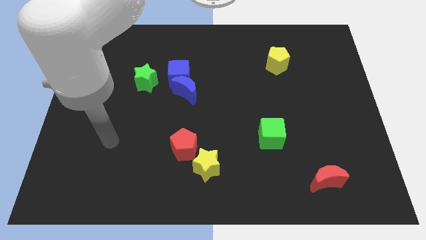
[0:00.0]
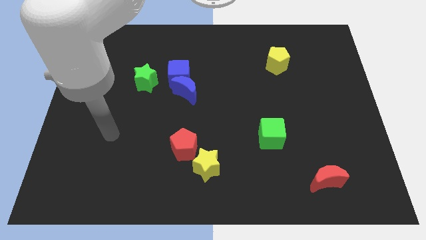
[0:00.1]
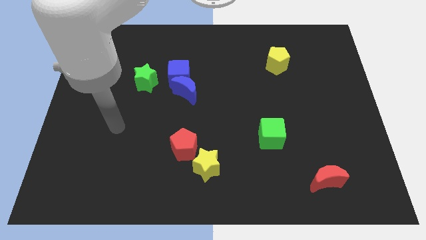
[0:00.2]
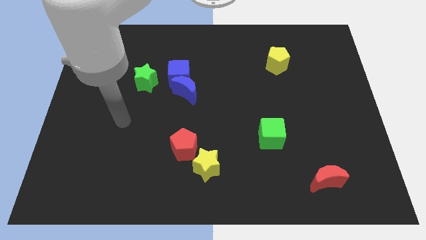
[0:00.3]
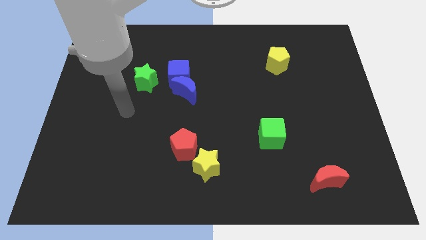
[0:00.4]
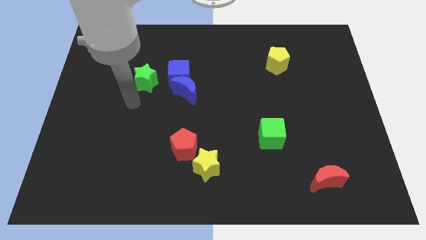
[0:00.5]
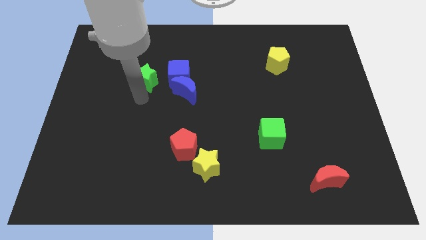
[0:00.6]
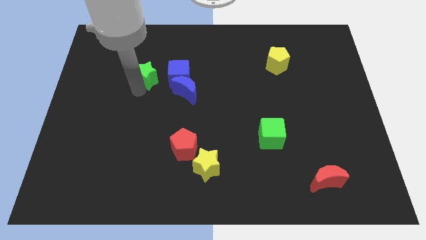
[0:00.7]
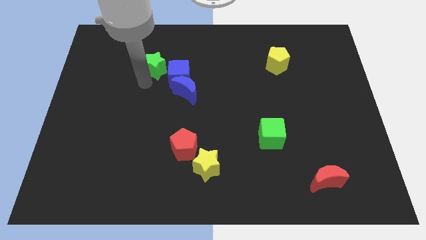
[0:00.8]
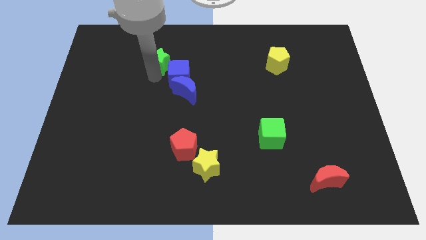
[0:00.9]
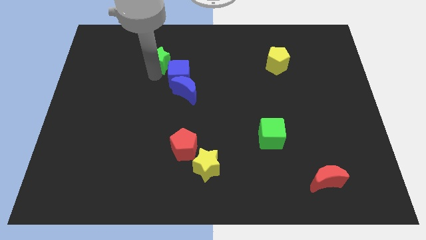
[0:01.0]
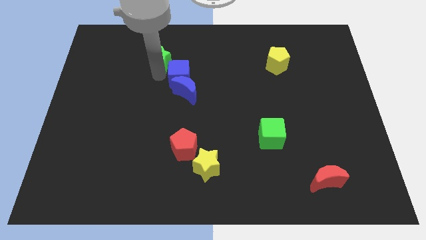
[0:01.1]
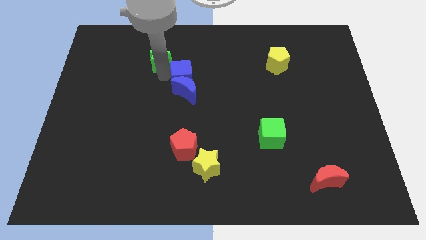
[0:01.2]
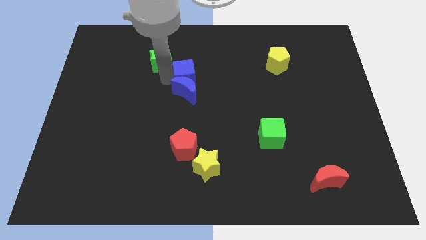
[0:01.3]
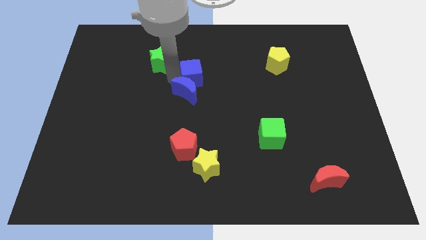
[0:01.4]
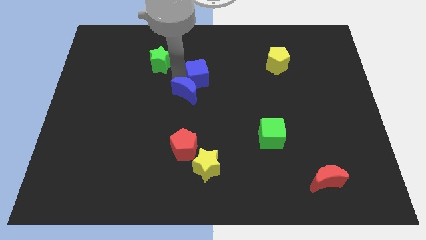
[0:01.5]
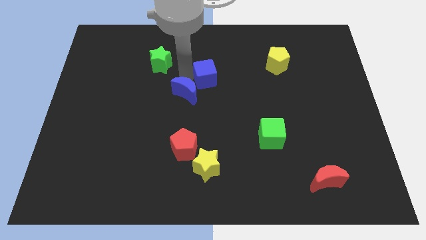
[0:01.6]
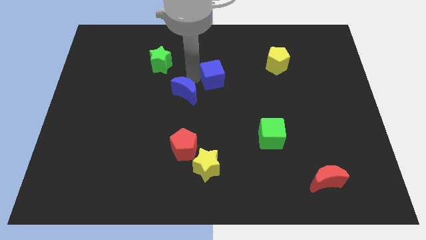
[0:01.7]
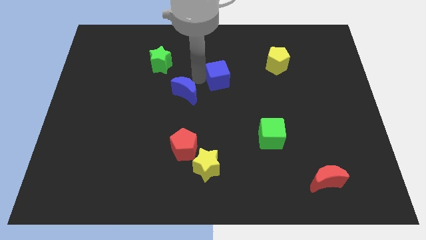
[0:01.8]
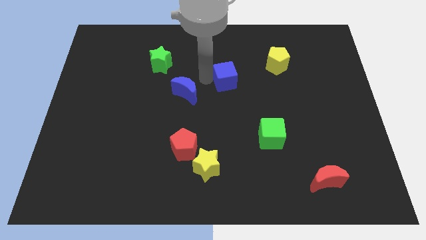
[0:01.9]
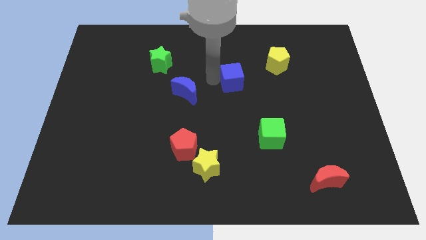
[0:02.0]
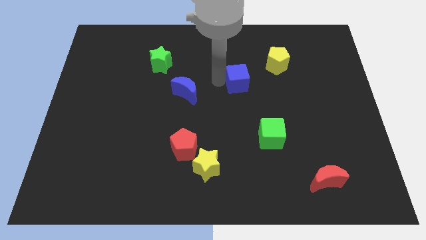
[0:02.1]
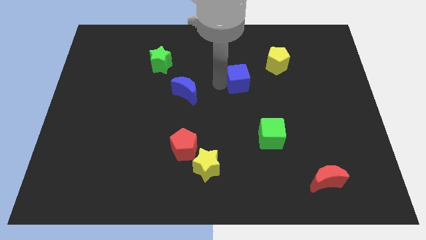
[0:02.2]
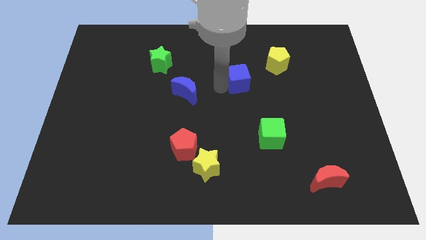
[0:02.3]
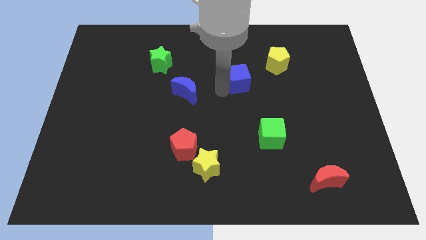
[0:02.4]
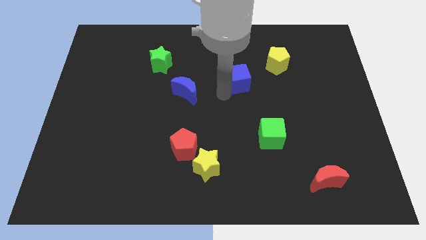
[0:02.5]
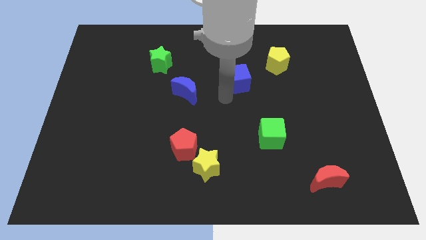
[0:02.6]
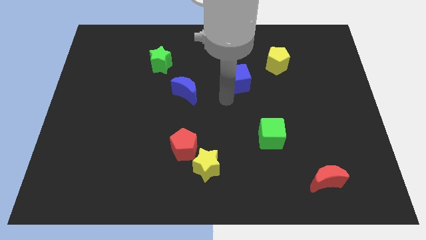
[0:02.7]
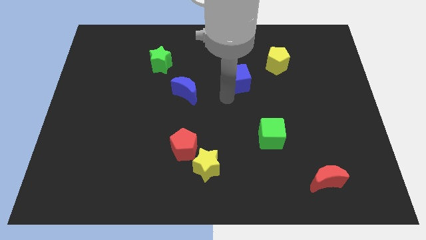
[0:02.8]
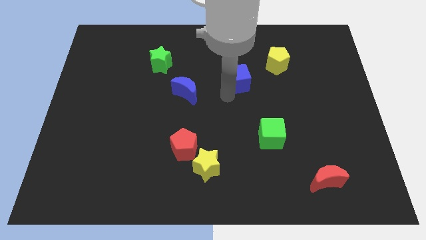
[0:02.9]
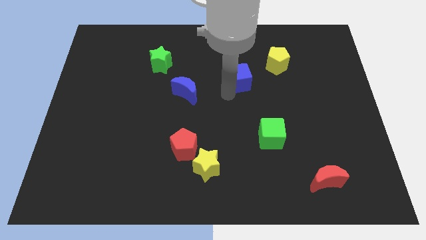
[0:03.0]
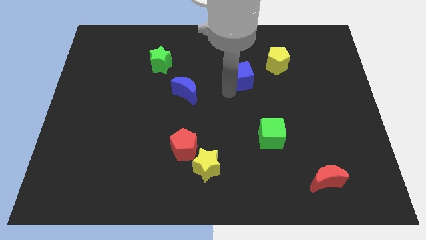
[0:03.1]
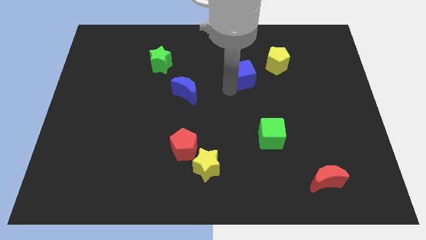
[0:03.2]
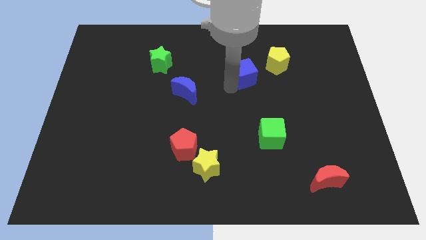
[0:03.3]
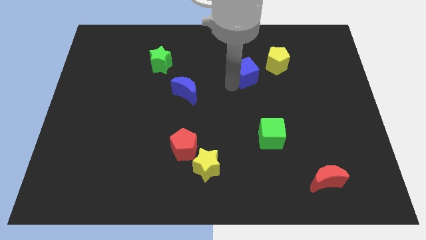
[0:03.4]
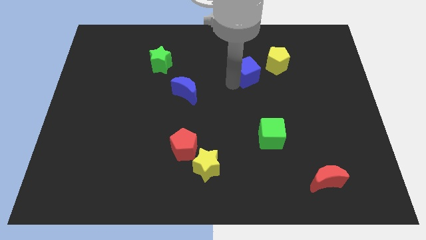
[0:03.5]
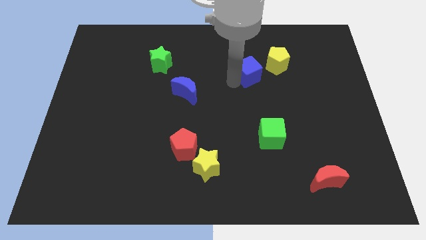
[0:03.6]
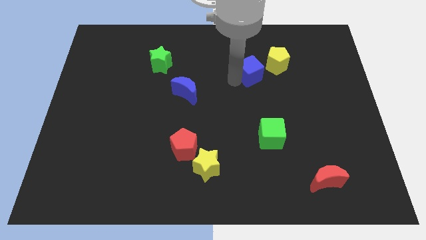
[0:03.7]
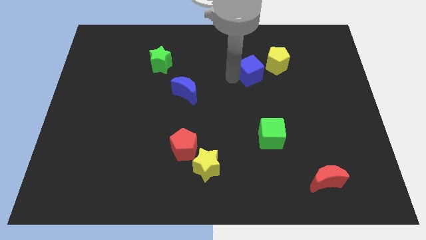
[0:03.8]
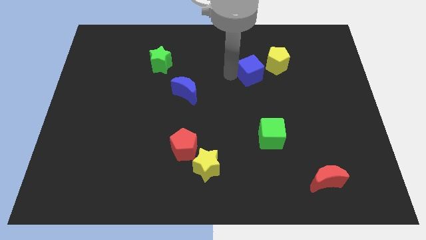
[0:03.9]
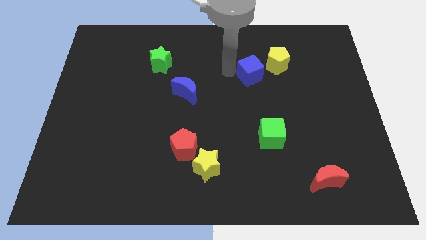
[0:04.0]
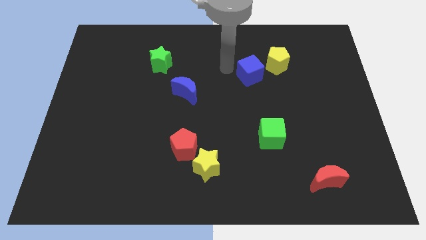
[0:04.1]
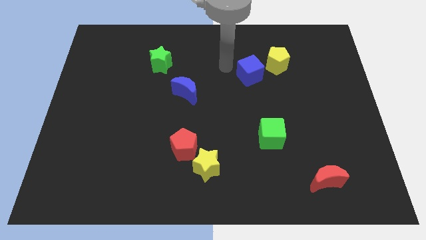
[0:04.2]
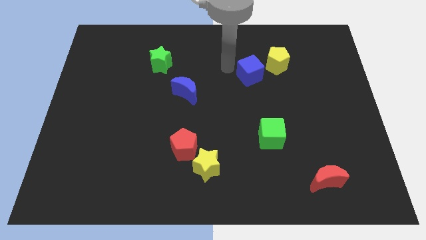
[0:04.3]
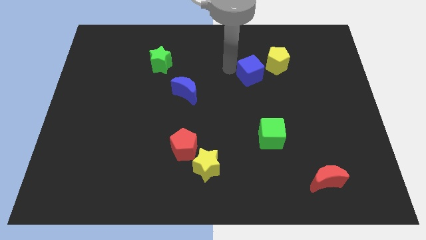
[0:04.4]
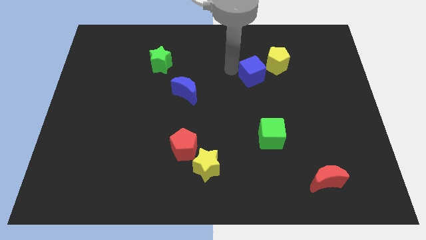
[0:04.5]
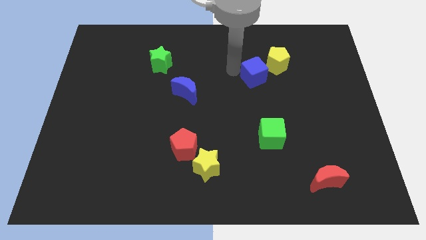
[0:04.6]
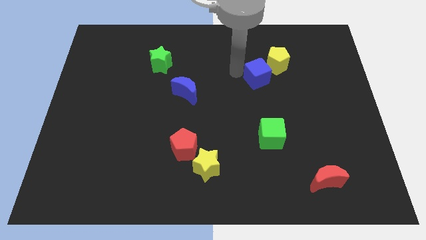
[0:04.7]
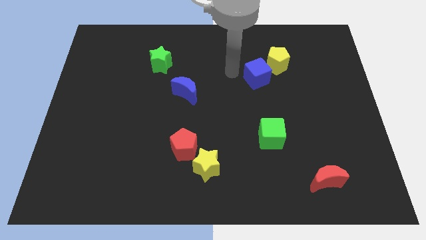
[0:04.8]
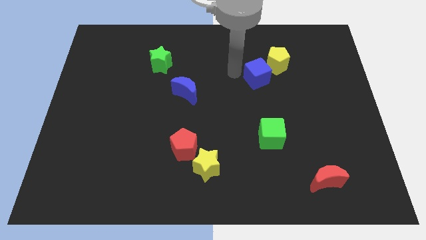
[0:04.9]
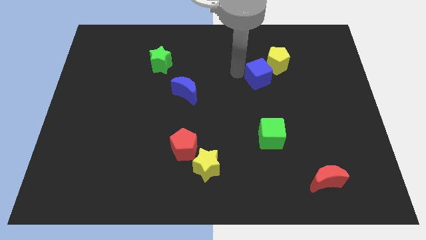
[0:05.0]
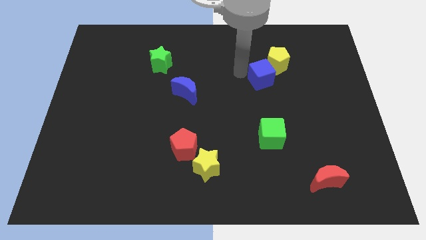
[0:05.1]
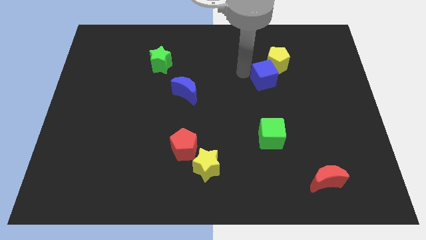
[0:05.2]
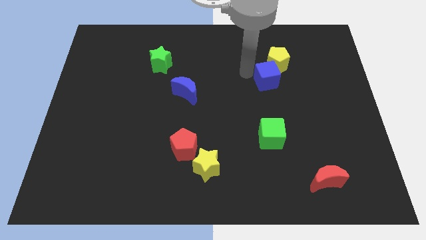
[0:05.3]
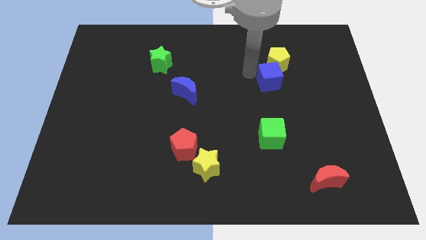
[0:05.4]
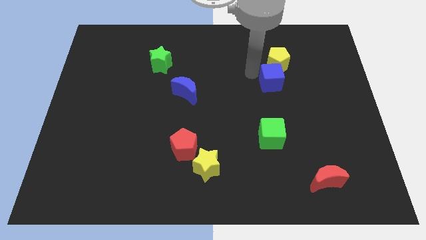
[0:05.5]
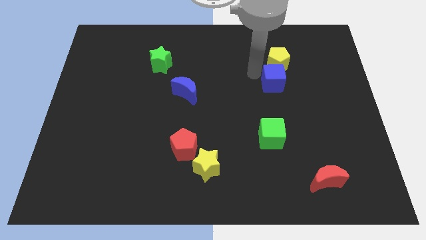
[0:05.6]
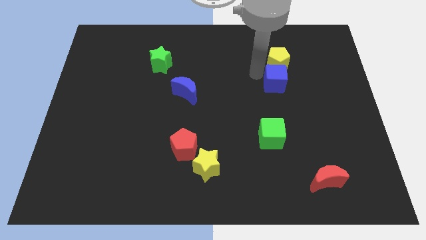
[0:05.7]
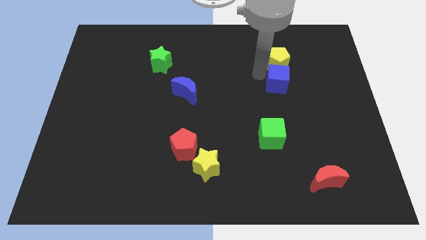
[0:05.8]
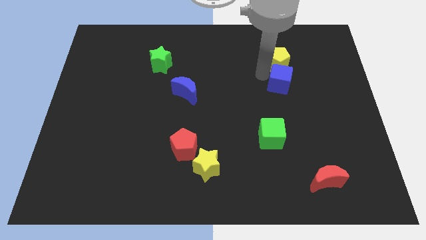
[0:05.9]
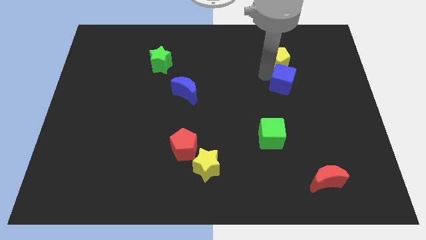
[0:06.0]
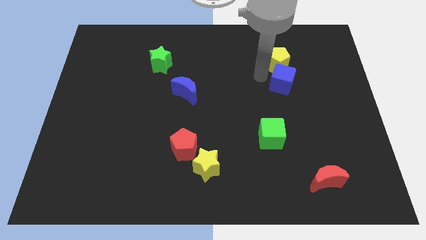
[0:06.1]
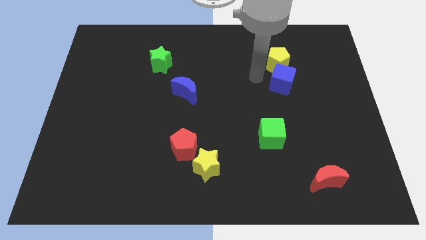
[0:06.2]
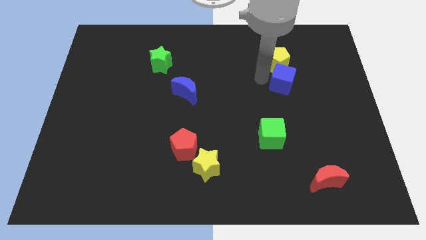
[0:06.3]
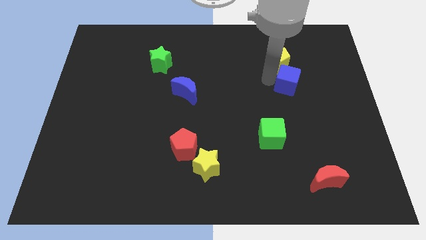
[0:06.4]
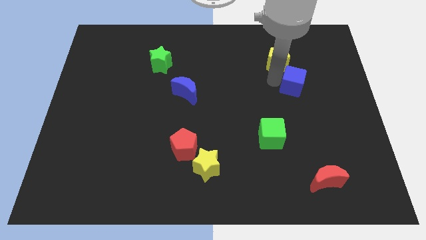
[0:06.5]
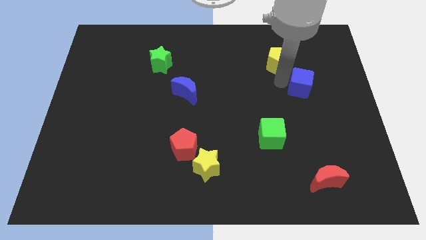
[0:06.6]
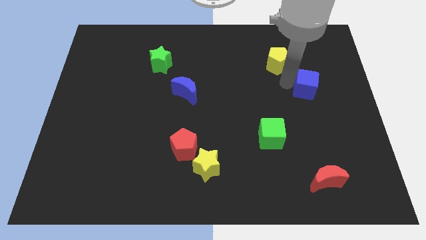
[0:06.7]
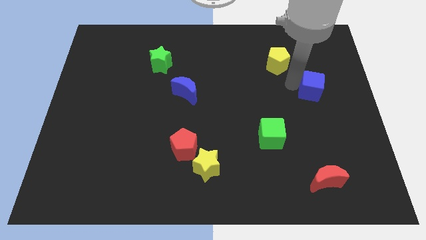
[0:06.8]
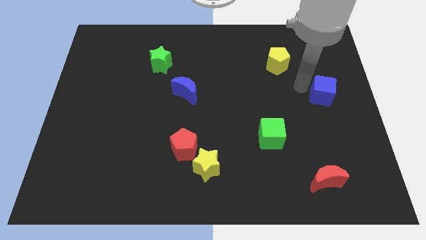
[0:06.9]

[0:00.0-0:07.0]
move the blue cube to the center right
